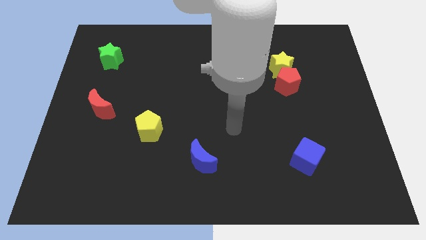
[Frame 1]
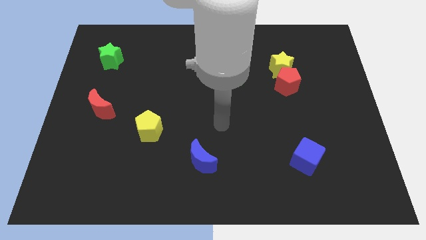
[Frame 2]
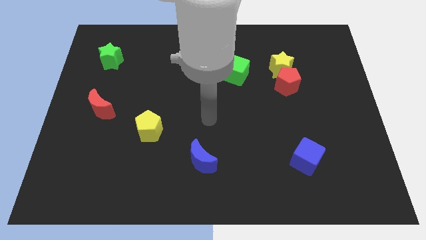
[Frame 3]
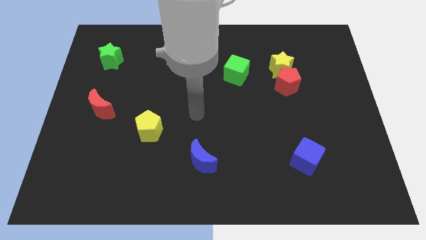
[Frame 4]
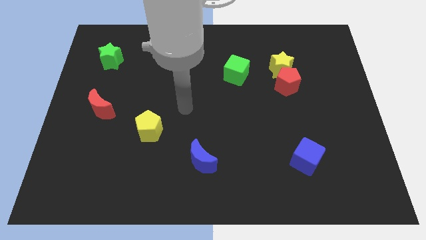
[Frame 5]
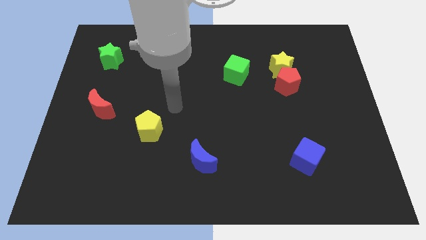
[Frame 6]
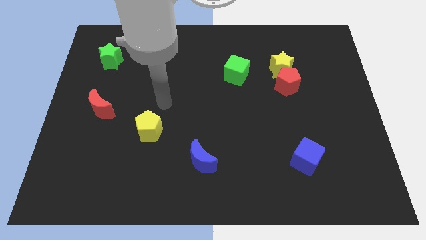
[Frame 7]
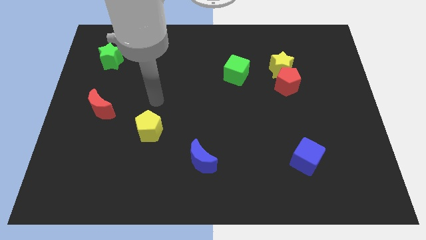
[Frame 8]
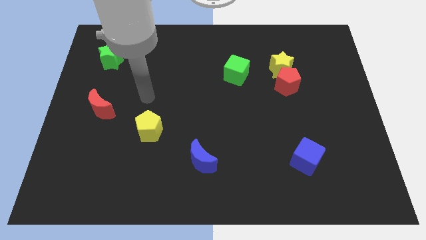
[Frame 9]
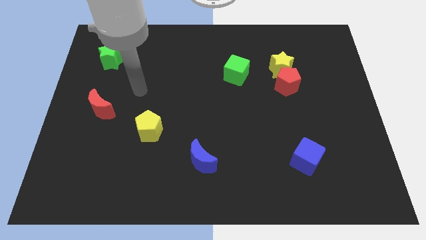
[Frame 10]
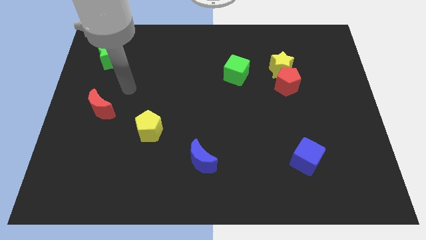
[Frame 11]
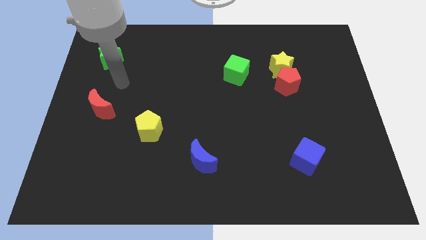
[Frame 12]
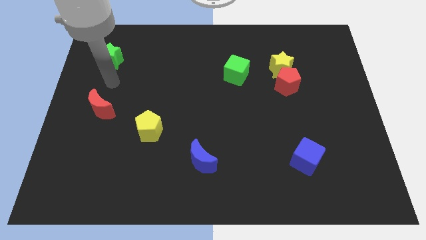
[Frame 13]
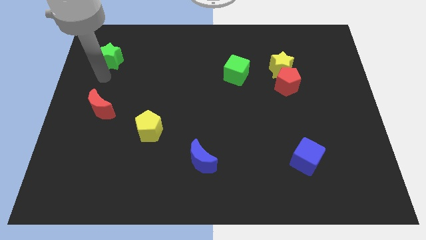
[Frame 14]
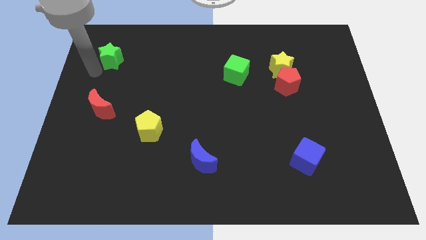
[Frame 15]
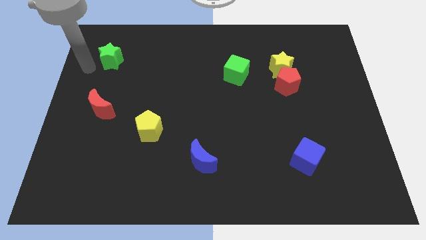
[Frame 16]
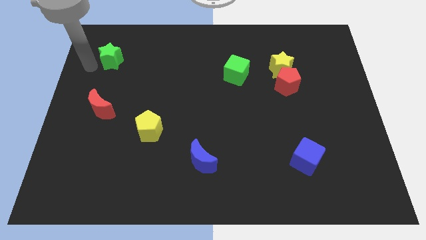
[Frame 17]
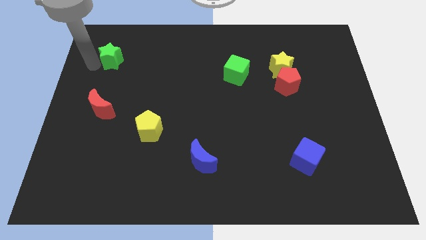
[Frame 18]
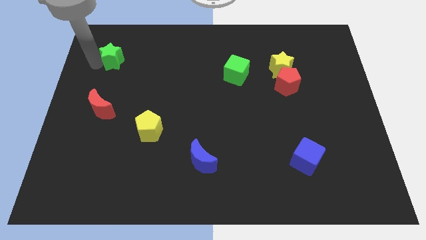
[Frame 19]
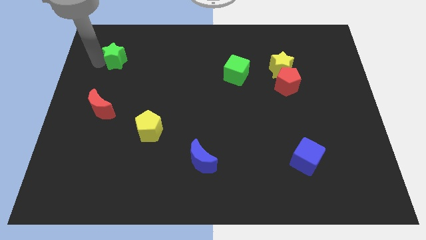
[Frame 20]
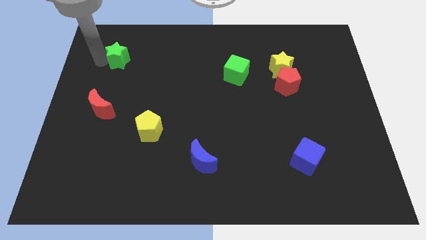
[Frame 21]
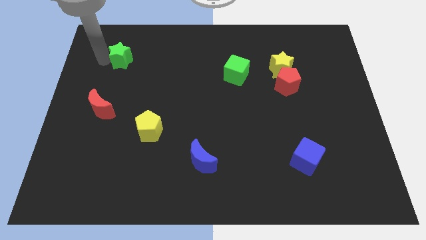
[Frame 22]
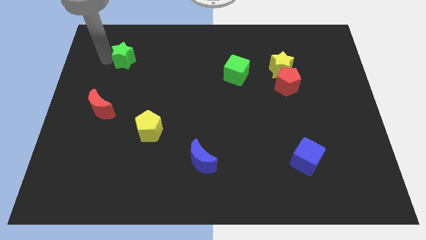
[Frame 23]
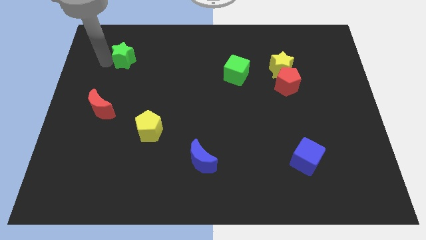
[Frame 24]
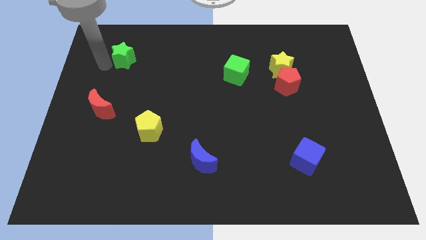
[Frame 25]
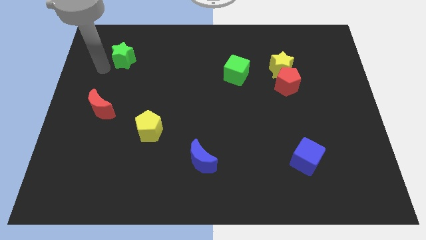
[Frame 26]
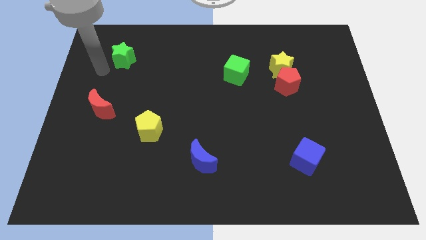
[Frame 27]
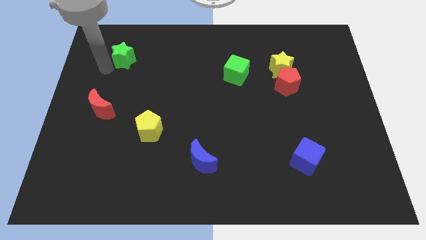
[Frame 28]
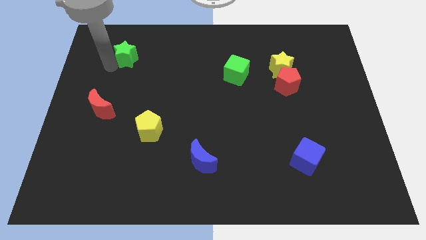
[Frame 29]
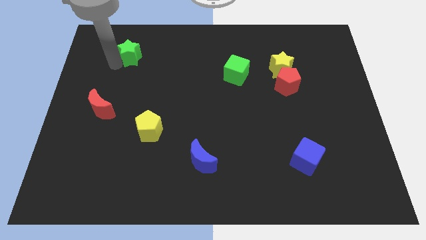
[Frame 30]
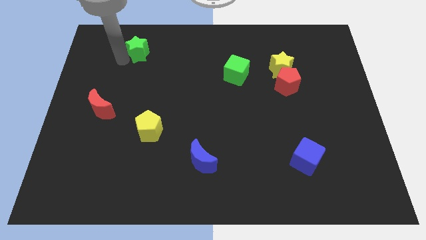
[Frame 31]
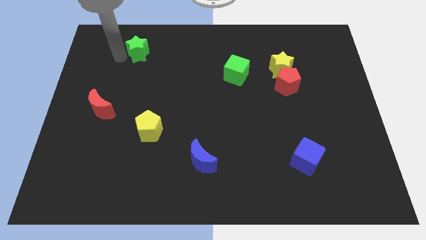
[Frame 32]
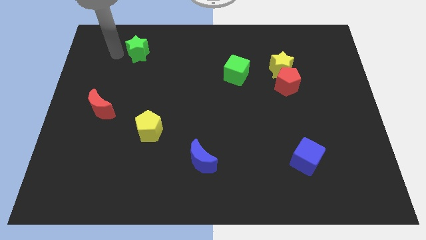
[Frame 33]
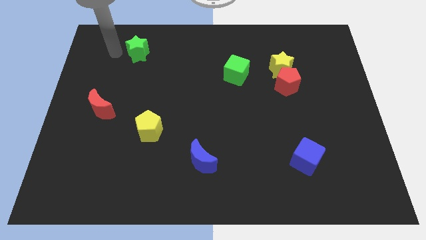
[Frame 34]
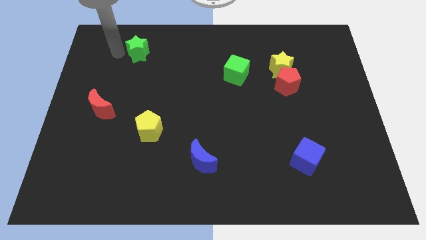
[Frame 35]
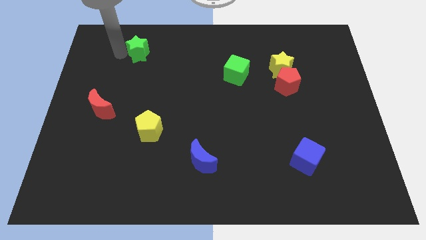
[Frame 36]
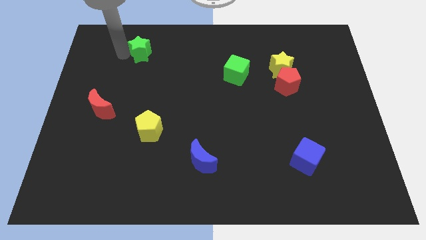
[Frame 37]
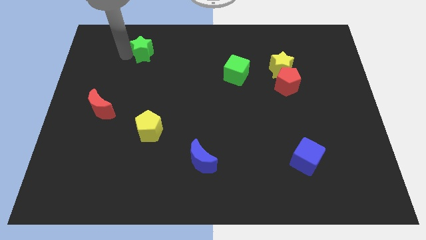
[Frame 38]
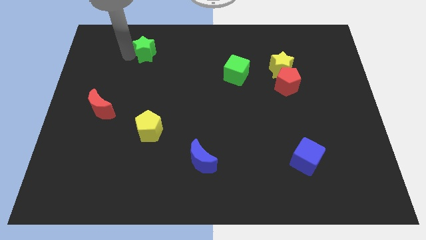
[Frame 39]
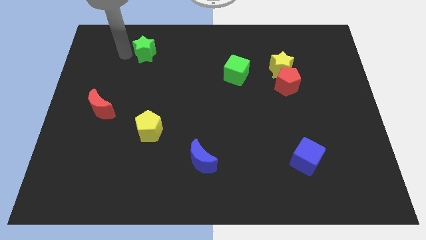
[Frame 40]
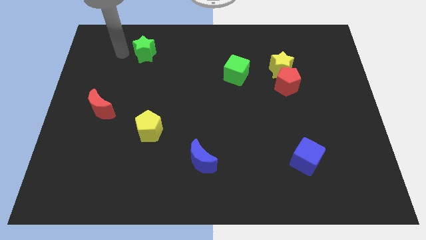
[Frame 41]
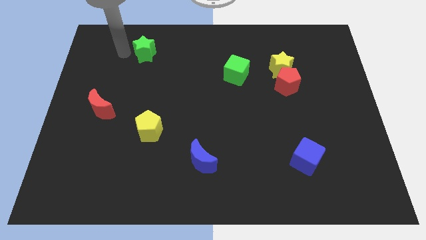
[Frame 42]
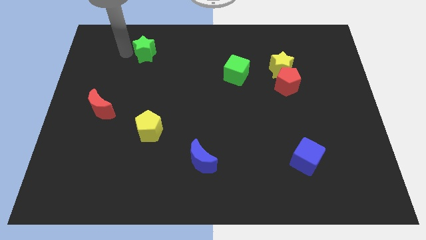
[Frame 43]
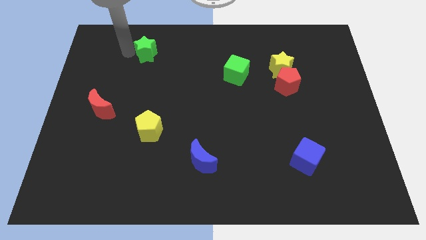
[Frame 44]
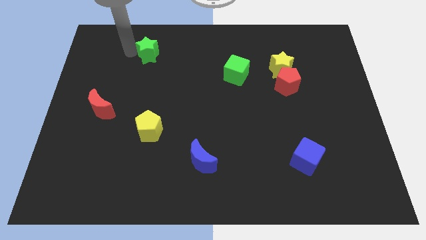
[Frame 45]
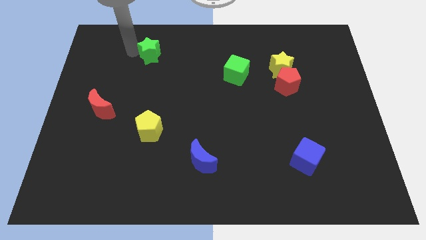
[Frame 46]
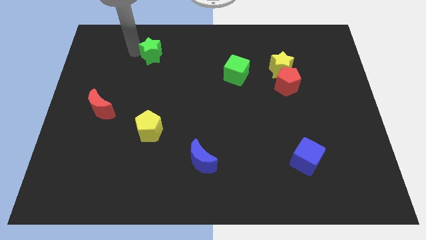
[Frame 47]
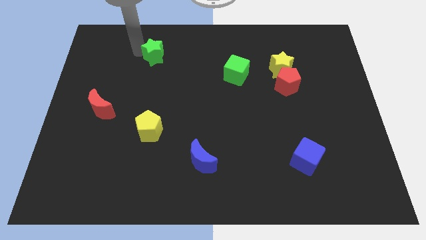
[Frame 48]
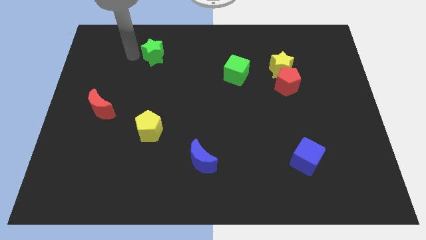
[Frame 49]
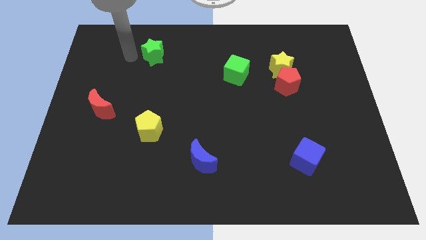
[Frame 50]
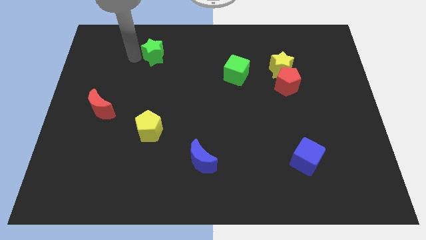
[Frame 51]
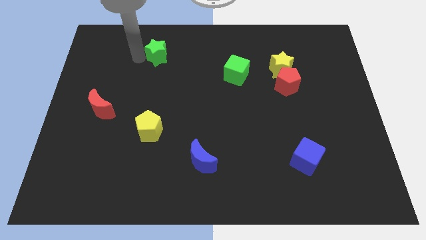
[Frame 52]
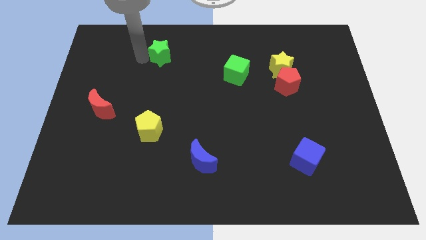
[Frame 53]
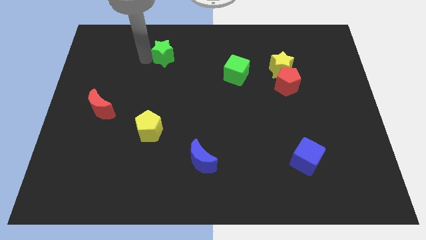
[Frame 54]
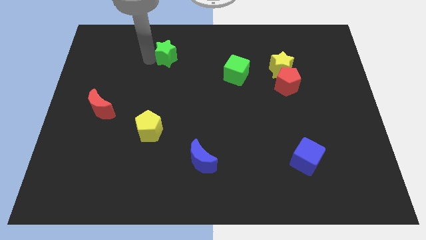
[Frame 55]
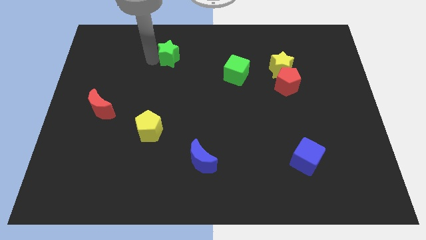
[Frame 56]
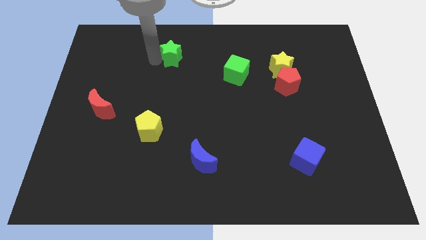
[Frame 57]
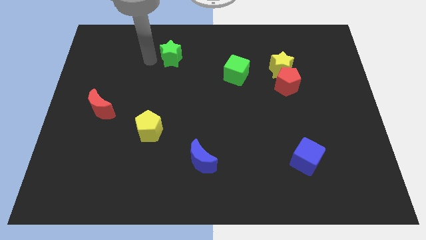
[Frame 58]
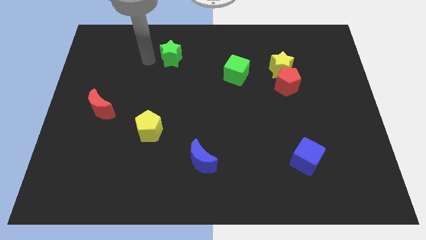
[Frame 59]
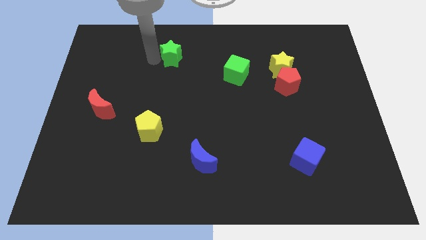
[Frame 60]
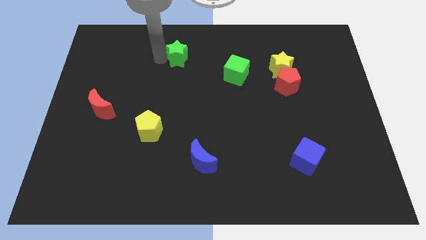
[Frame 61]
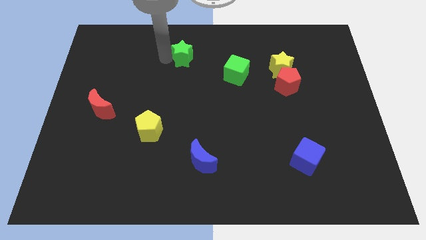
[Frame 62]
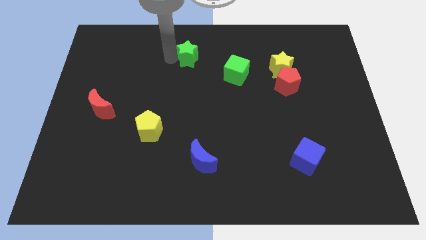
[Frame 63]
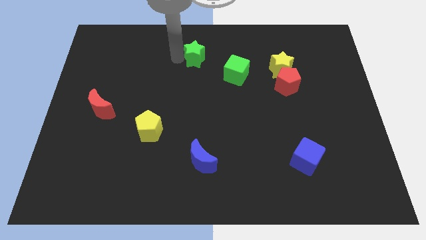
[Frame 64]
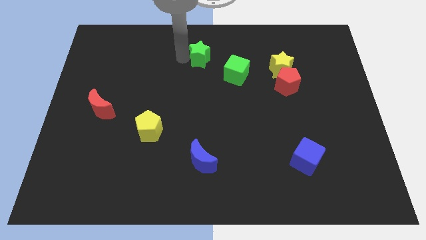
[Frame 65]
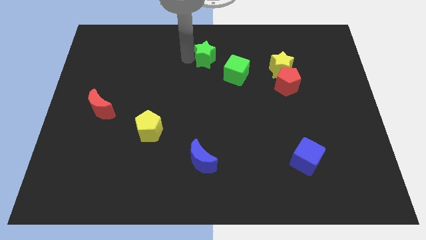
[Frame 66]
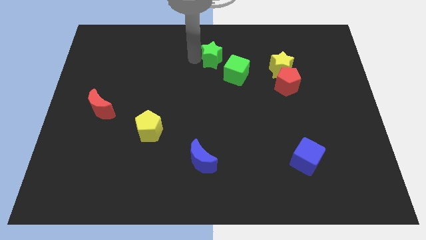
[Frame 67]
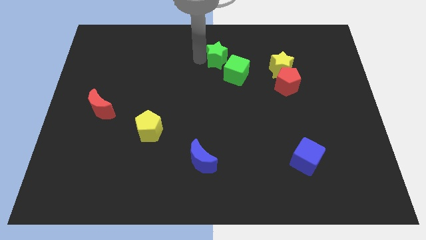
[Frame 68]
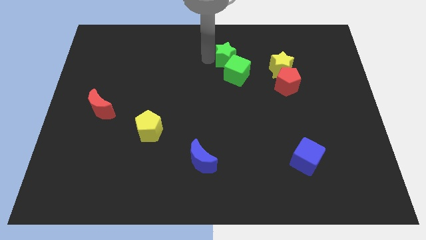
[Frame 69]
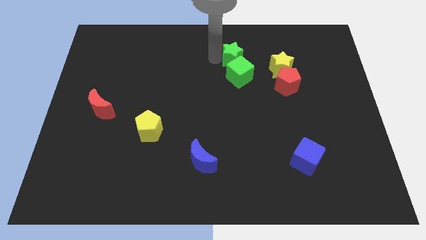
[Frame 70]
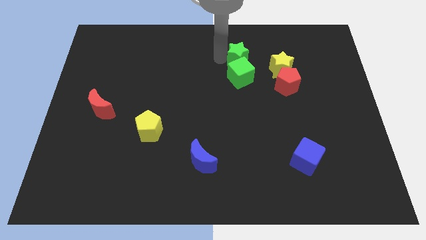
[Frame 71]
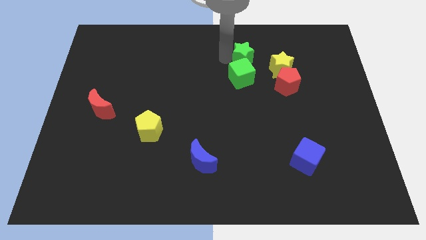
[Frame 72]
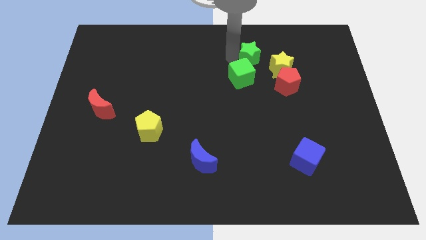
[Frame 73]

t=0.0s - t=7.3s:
move the green star to the top left of the red pentagon
